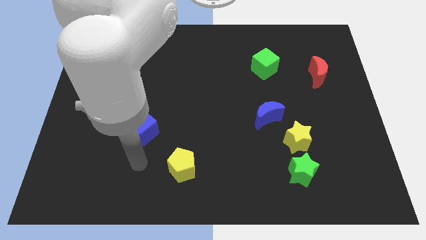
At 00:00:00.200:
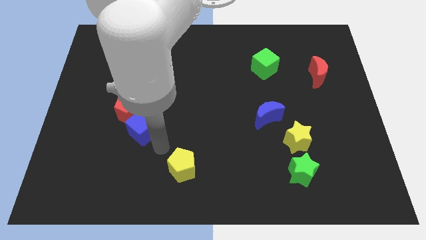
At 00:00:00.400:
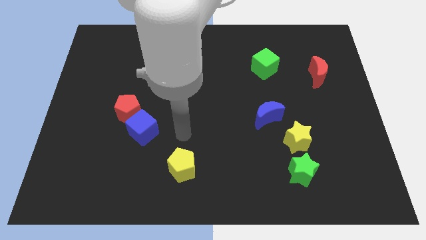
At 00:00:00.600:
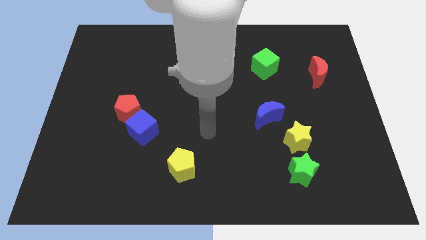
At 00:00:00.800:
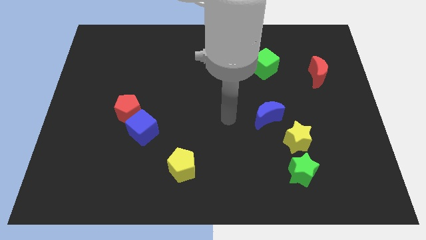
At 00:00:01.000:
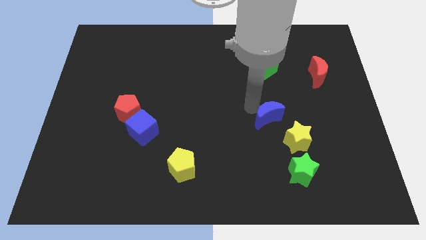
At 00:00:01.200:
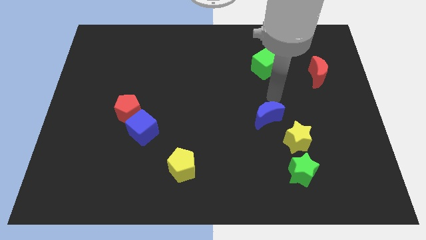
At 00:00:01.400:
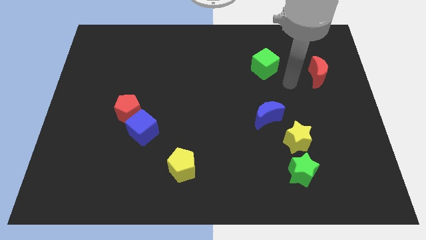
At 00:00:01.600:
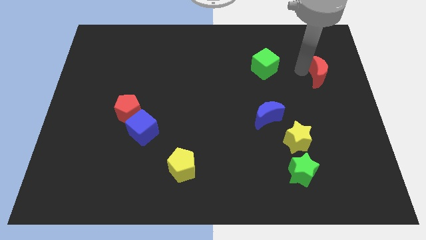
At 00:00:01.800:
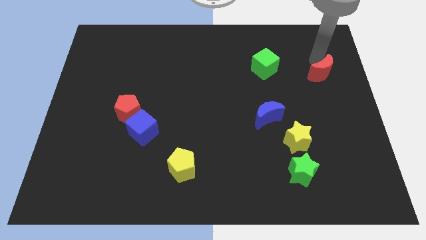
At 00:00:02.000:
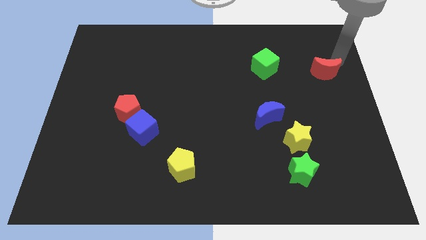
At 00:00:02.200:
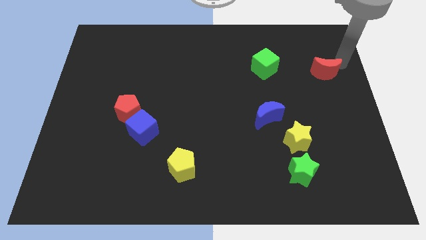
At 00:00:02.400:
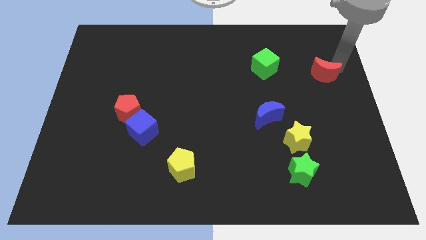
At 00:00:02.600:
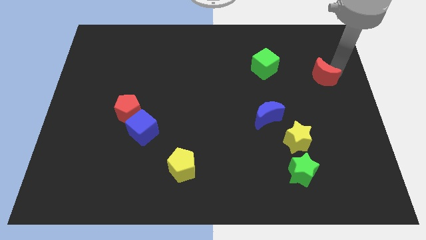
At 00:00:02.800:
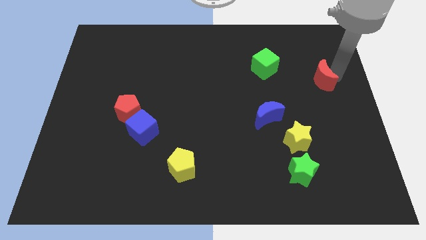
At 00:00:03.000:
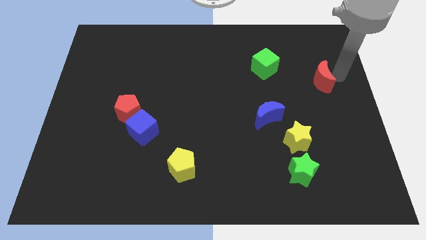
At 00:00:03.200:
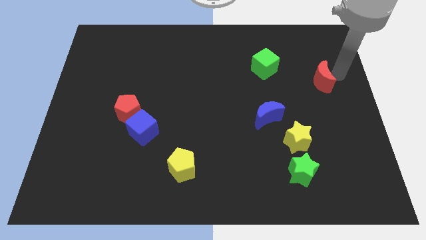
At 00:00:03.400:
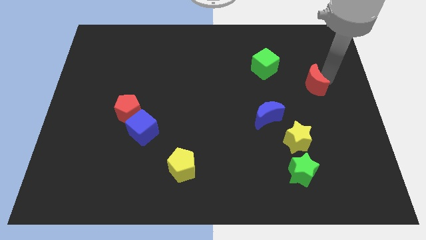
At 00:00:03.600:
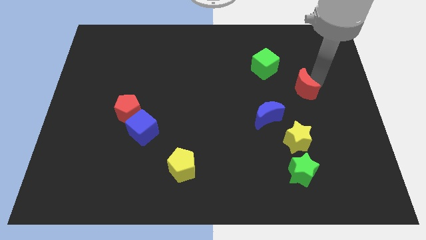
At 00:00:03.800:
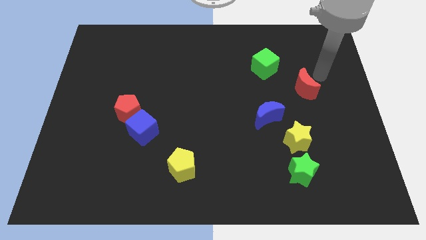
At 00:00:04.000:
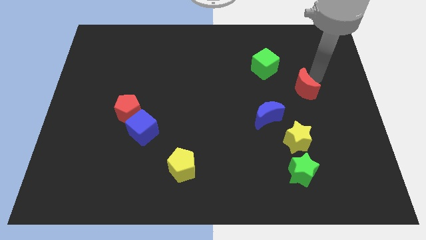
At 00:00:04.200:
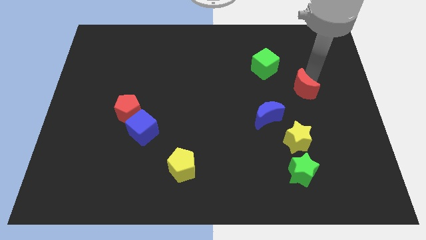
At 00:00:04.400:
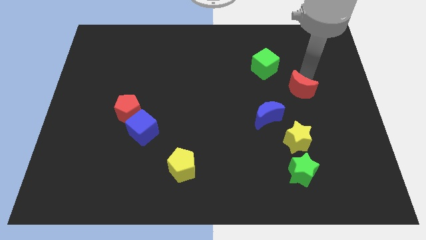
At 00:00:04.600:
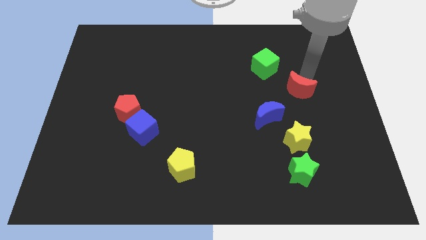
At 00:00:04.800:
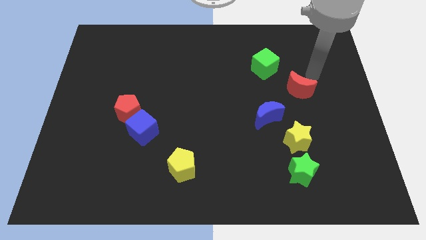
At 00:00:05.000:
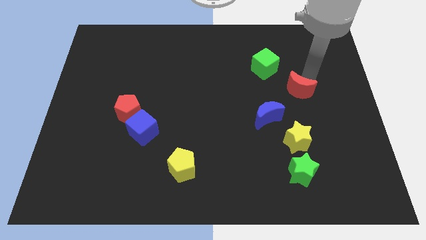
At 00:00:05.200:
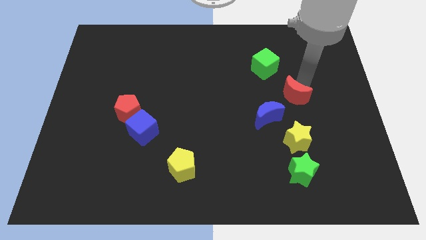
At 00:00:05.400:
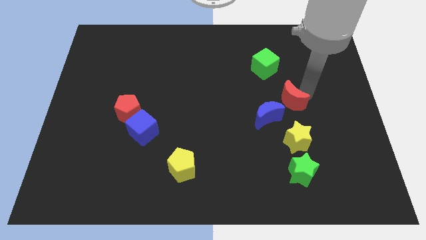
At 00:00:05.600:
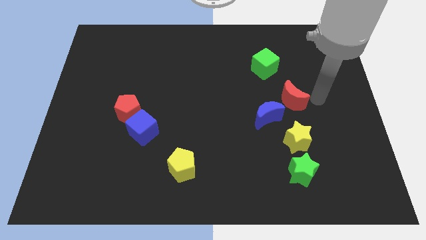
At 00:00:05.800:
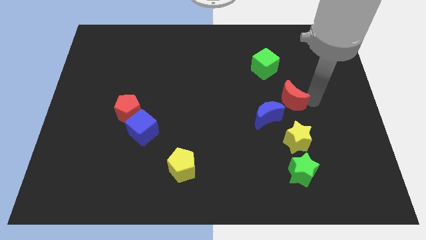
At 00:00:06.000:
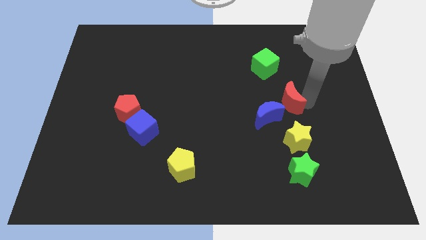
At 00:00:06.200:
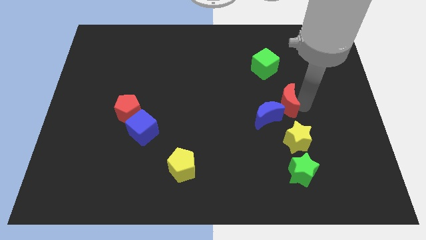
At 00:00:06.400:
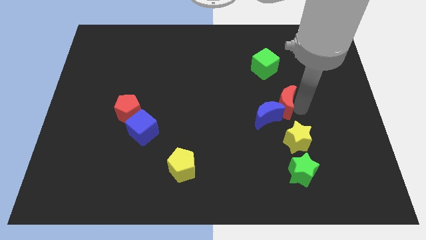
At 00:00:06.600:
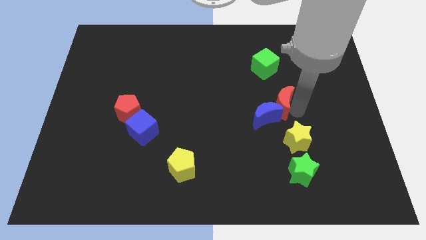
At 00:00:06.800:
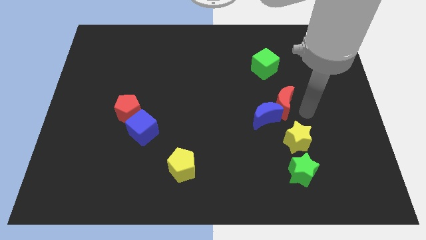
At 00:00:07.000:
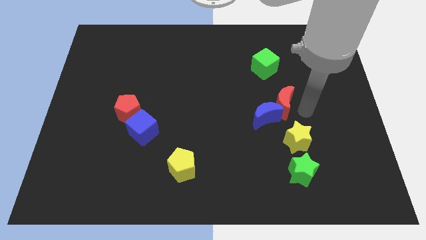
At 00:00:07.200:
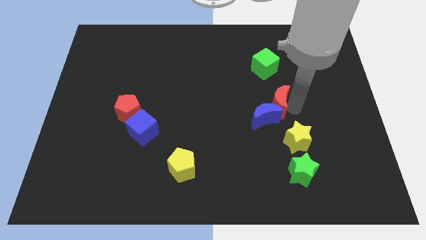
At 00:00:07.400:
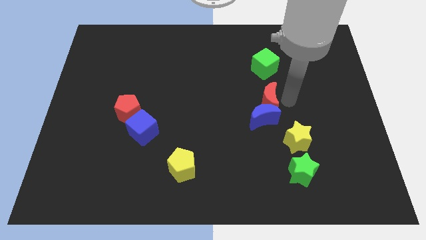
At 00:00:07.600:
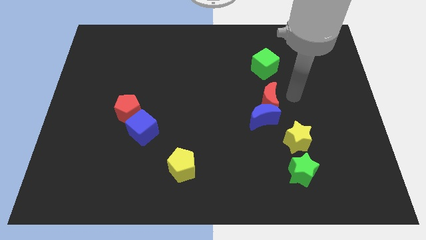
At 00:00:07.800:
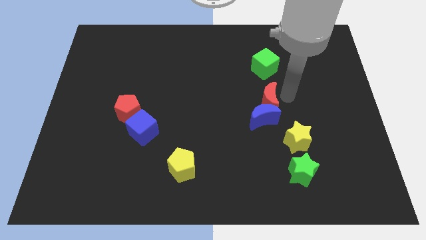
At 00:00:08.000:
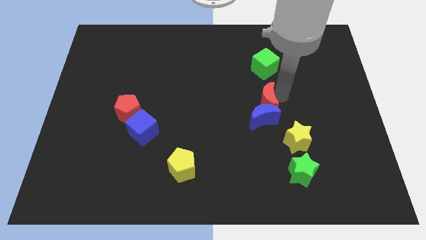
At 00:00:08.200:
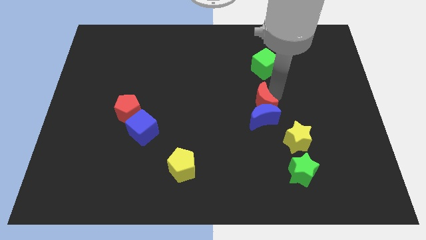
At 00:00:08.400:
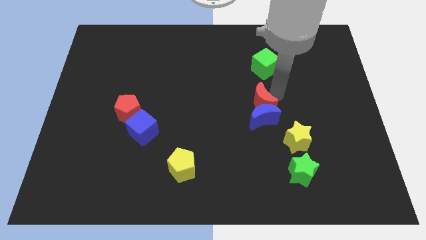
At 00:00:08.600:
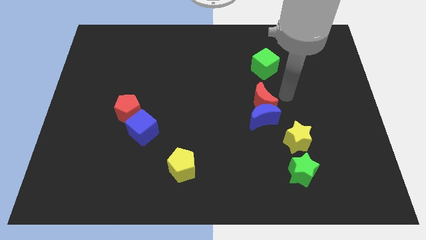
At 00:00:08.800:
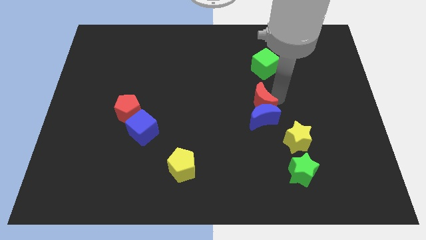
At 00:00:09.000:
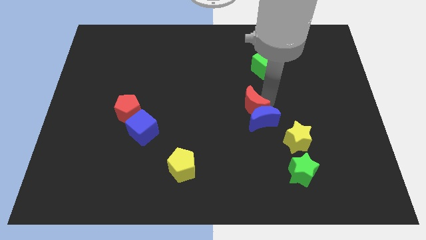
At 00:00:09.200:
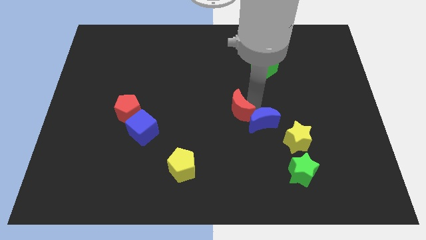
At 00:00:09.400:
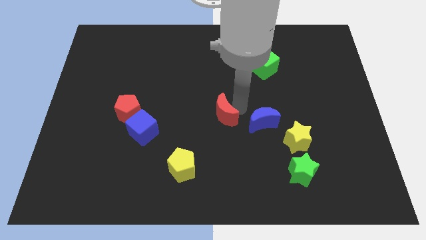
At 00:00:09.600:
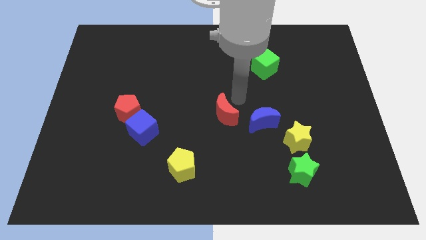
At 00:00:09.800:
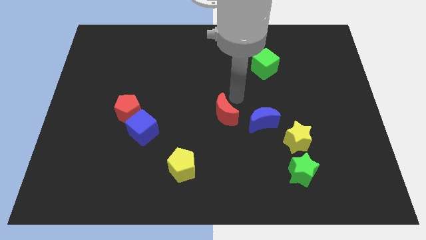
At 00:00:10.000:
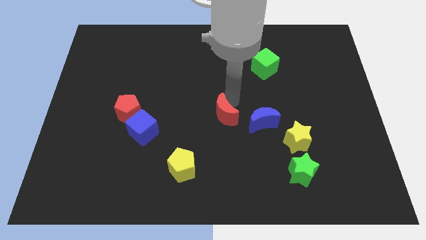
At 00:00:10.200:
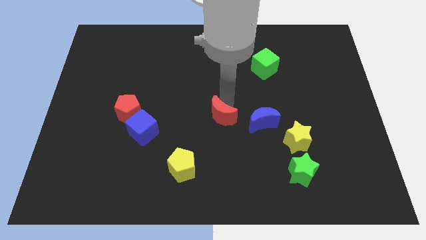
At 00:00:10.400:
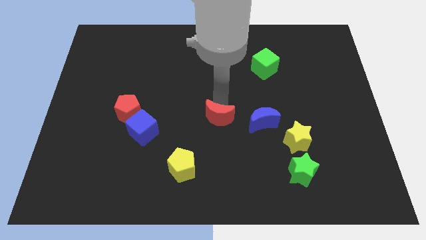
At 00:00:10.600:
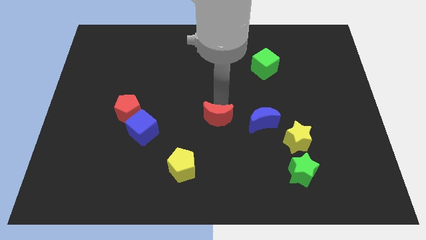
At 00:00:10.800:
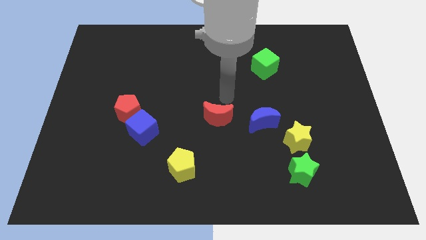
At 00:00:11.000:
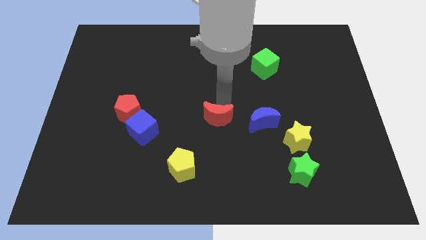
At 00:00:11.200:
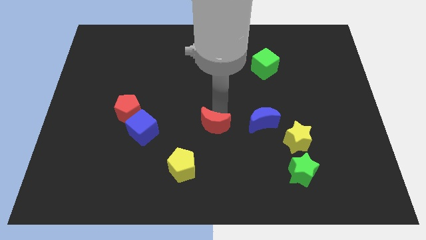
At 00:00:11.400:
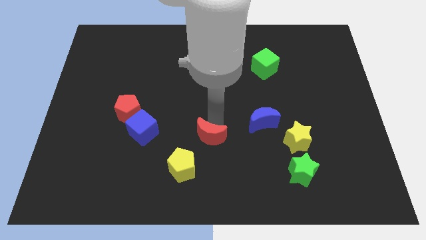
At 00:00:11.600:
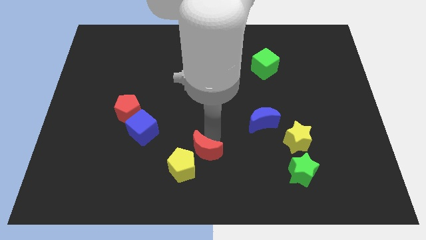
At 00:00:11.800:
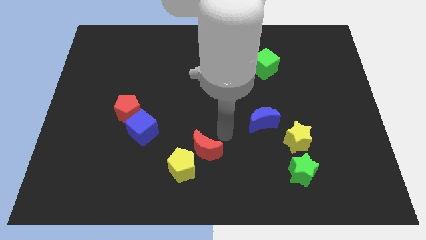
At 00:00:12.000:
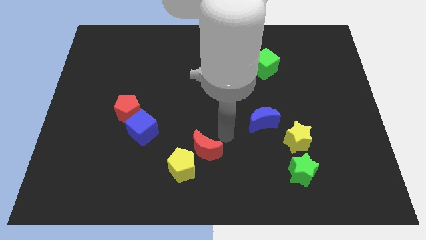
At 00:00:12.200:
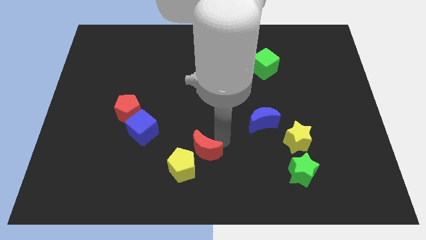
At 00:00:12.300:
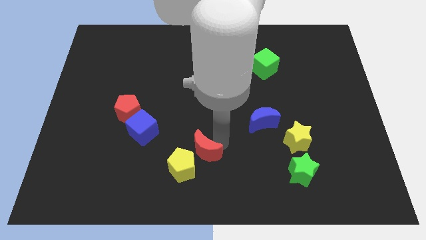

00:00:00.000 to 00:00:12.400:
move the red moon towards the yellow pentagon
